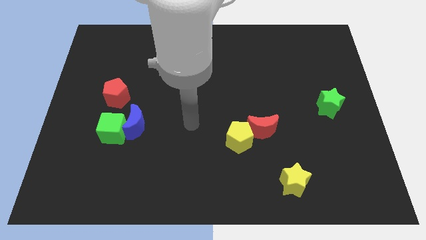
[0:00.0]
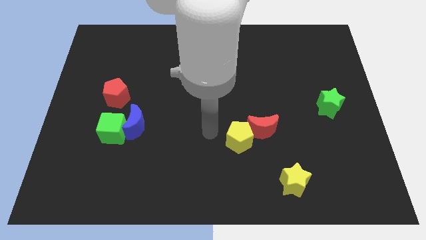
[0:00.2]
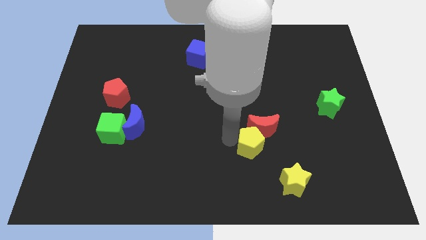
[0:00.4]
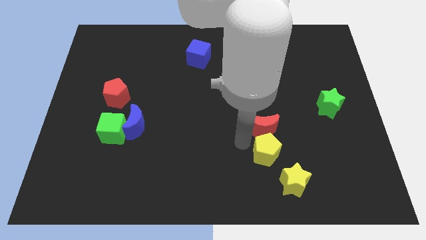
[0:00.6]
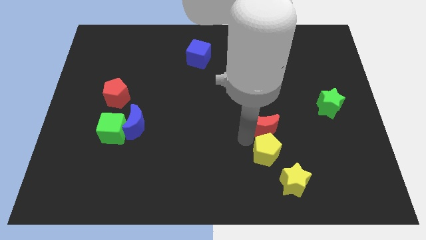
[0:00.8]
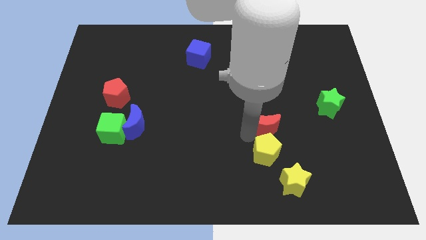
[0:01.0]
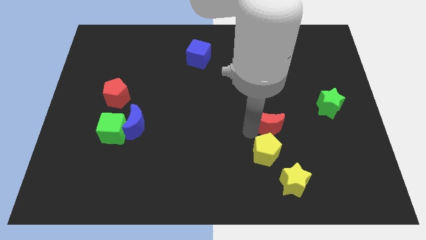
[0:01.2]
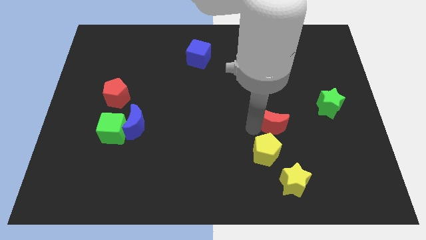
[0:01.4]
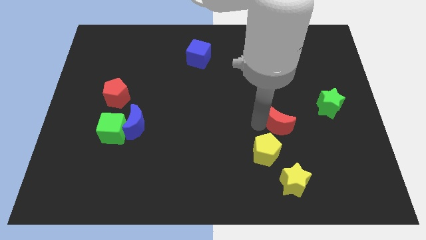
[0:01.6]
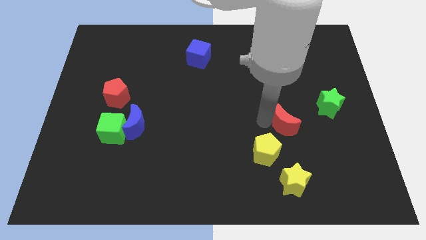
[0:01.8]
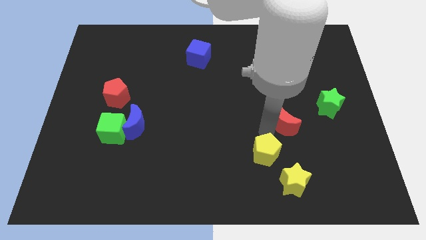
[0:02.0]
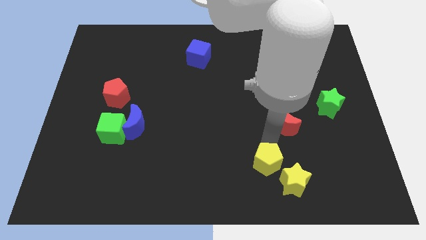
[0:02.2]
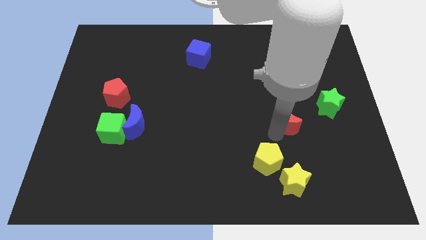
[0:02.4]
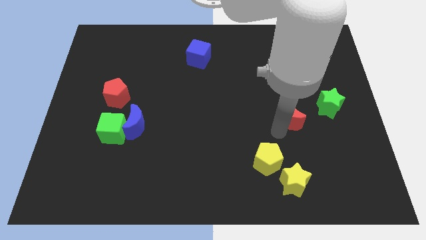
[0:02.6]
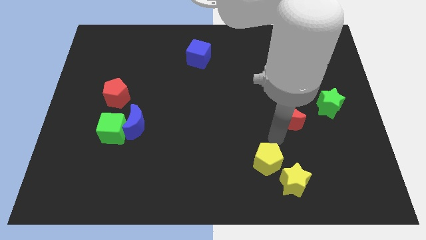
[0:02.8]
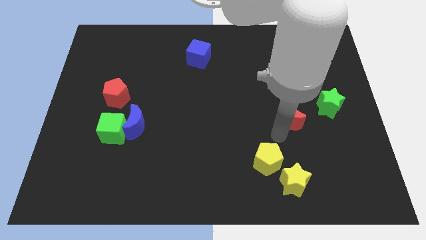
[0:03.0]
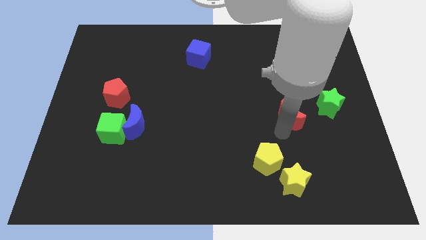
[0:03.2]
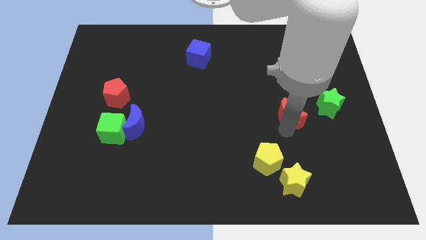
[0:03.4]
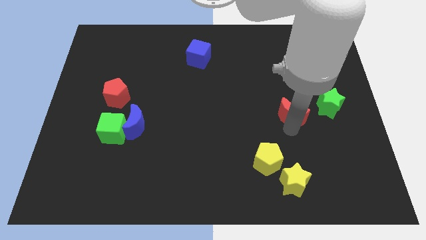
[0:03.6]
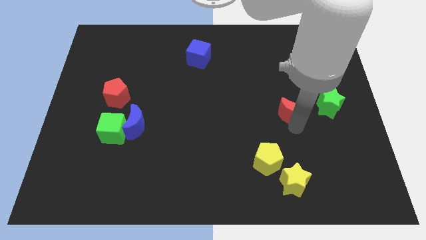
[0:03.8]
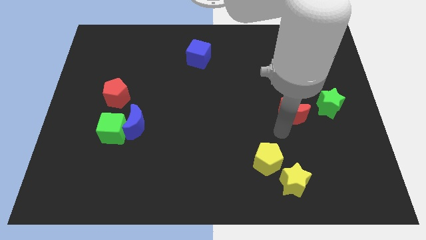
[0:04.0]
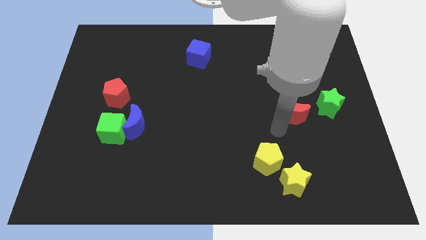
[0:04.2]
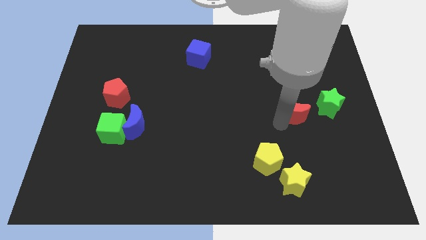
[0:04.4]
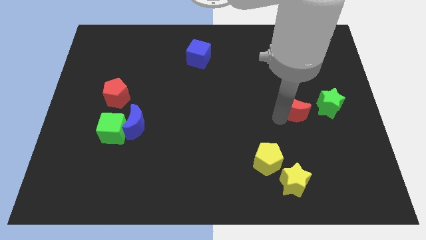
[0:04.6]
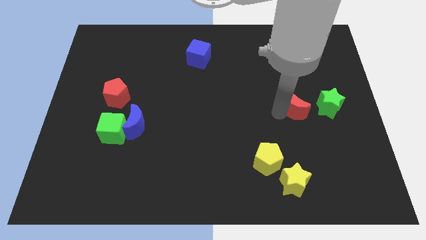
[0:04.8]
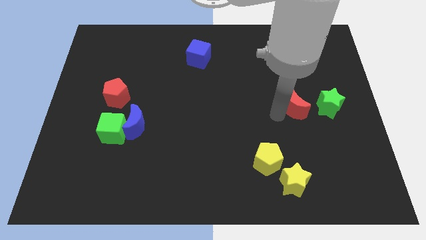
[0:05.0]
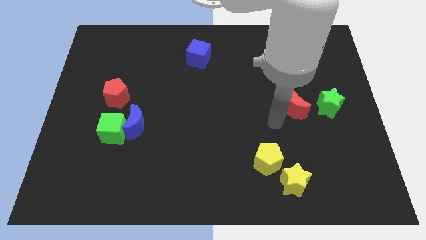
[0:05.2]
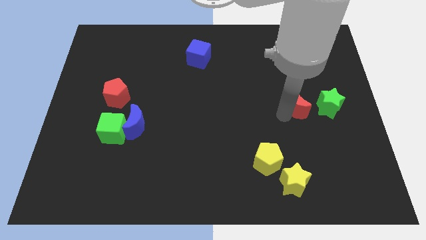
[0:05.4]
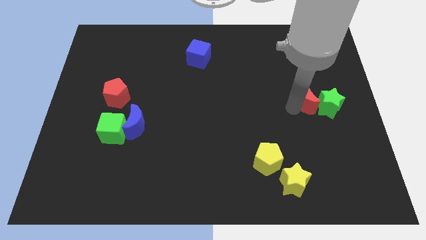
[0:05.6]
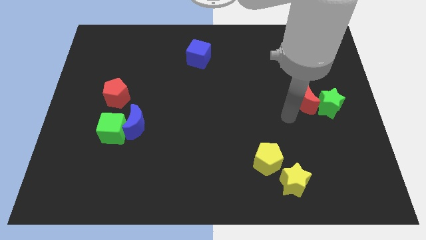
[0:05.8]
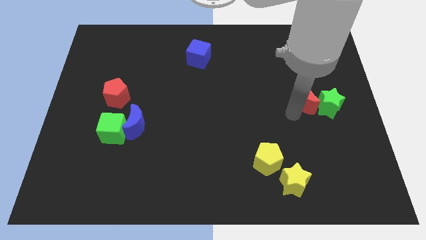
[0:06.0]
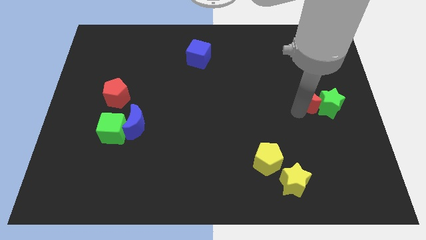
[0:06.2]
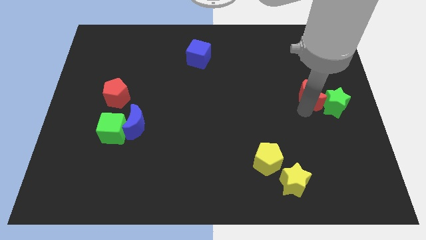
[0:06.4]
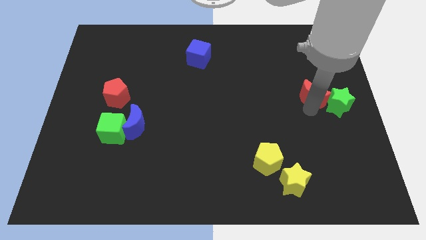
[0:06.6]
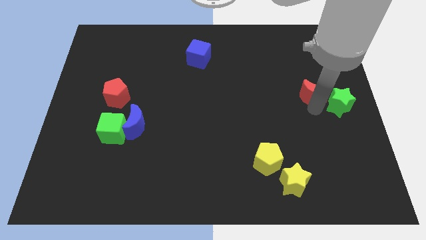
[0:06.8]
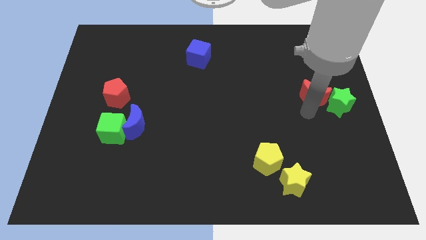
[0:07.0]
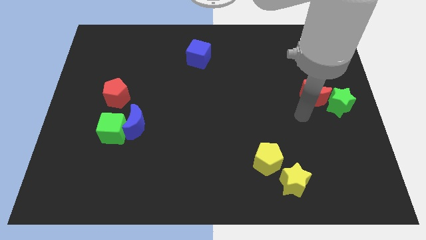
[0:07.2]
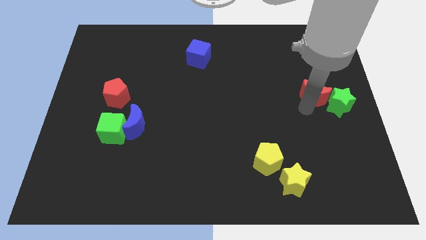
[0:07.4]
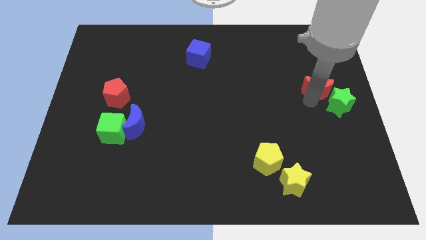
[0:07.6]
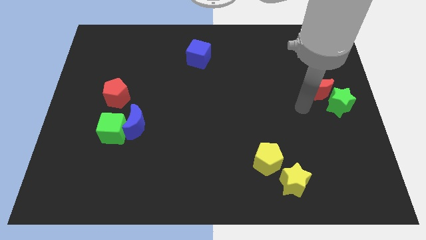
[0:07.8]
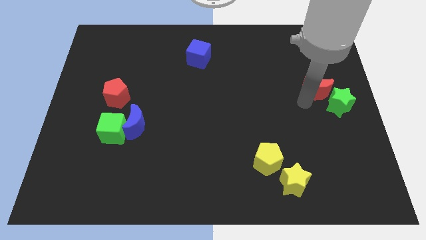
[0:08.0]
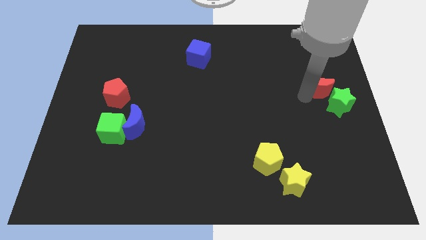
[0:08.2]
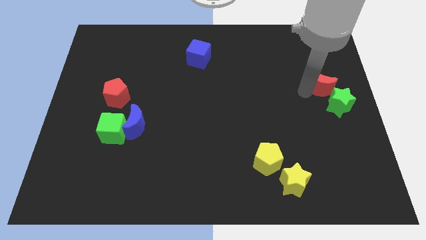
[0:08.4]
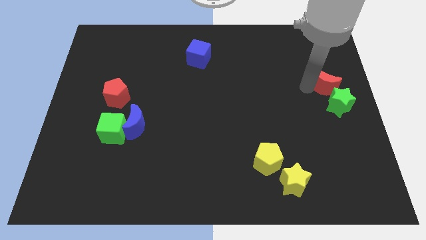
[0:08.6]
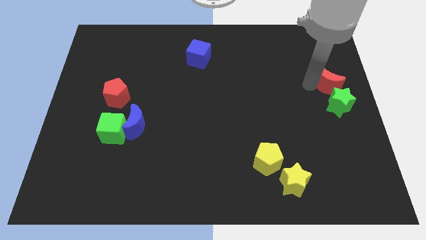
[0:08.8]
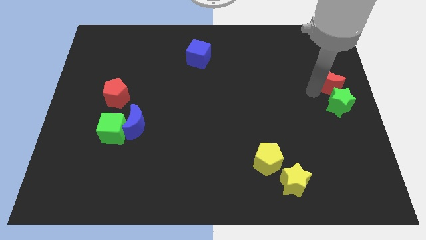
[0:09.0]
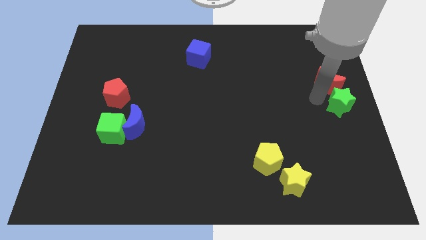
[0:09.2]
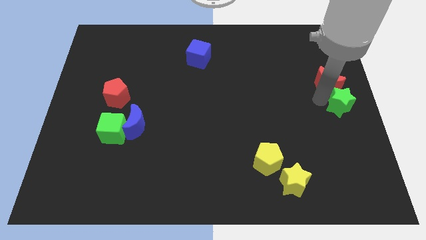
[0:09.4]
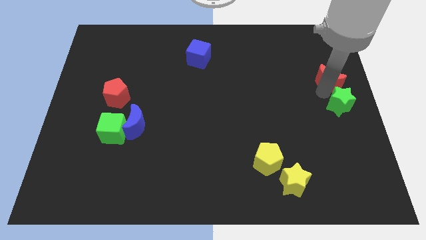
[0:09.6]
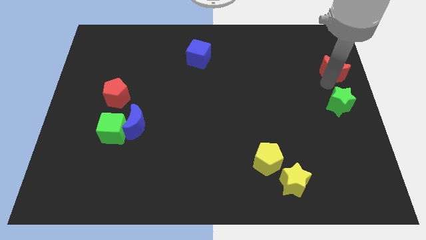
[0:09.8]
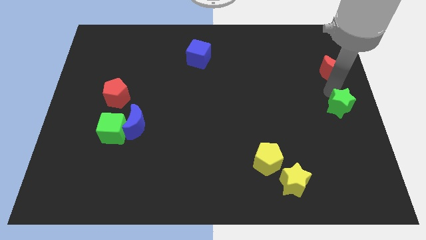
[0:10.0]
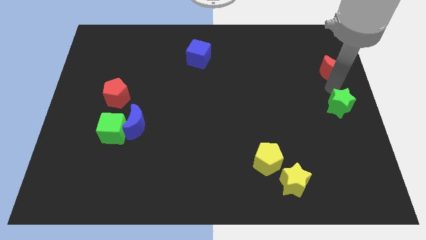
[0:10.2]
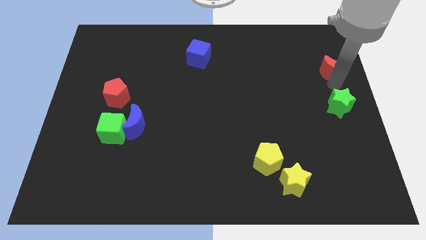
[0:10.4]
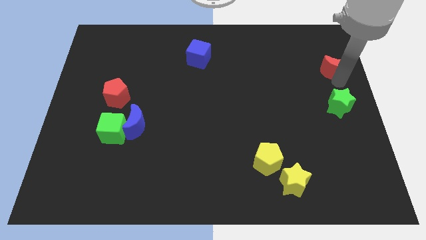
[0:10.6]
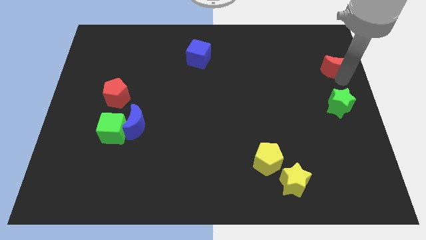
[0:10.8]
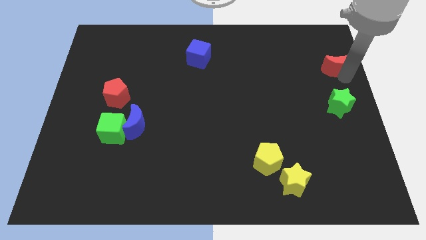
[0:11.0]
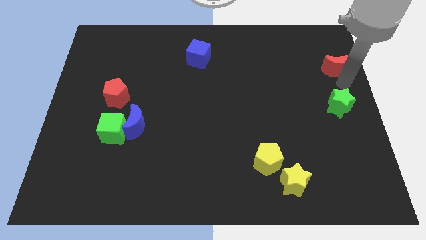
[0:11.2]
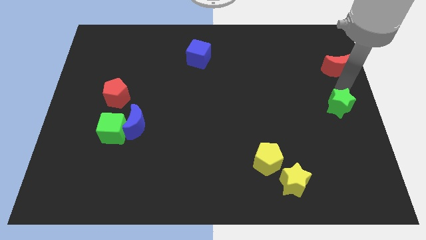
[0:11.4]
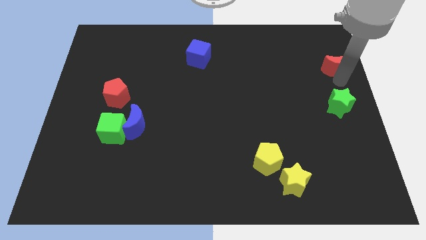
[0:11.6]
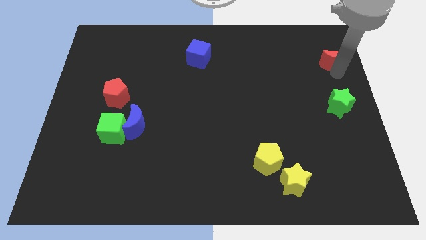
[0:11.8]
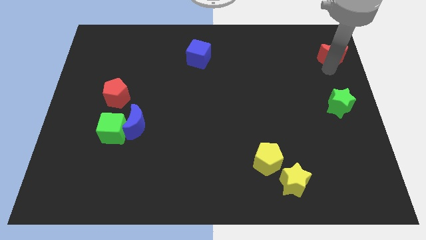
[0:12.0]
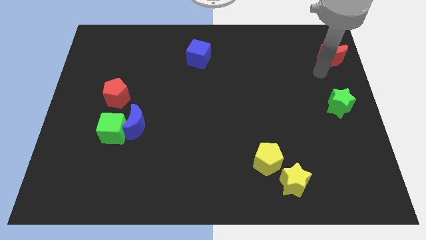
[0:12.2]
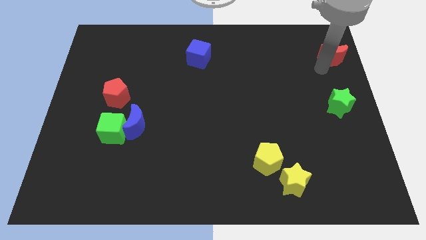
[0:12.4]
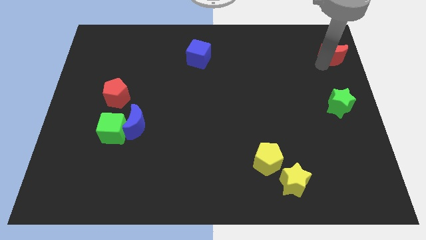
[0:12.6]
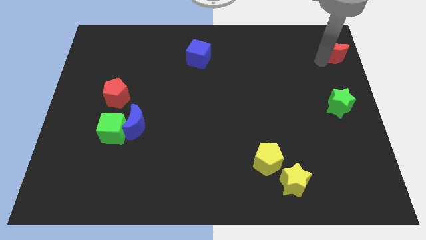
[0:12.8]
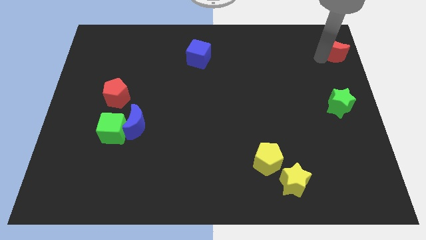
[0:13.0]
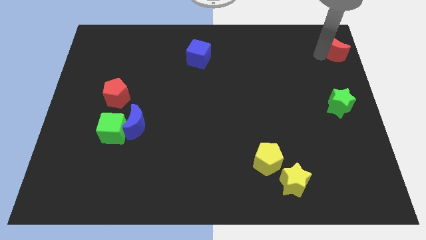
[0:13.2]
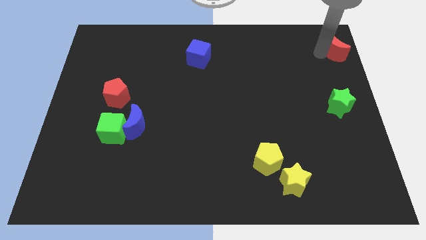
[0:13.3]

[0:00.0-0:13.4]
slide the red moon to the top right of the board
